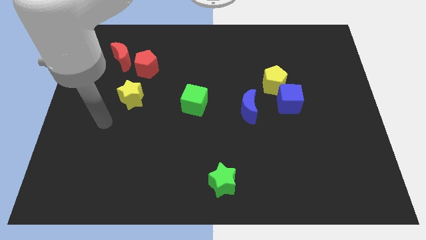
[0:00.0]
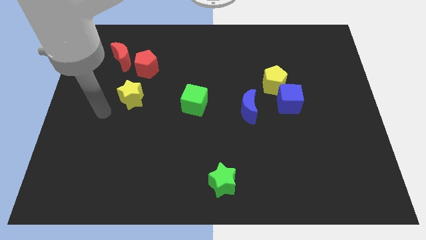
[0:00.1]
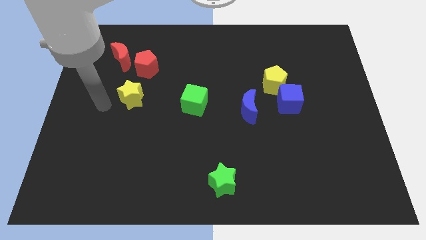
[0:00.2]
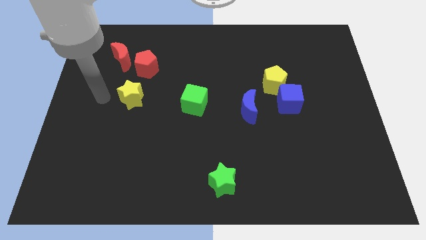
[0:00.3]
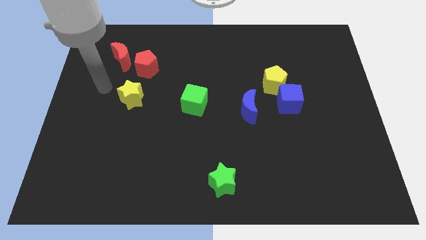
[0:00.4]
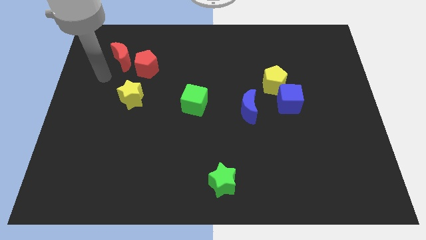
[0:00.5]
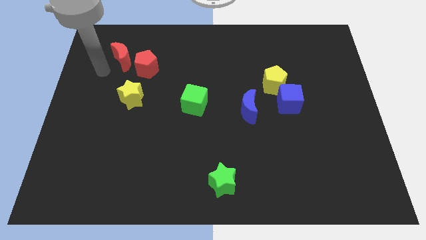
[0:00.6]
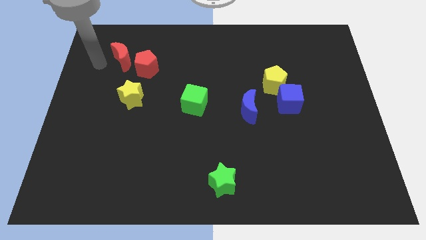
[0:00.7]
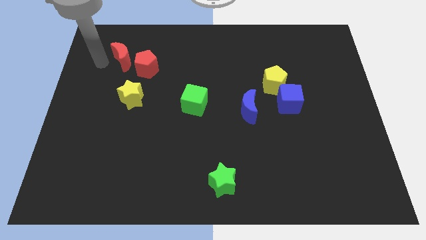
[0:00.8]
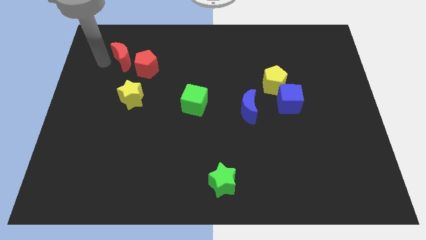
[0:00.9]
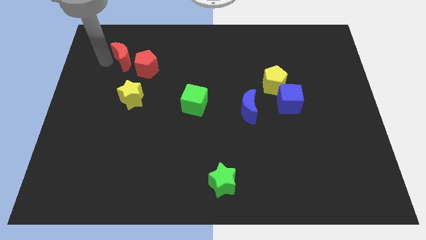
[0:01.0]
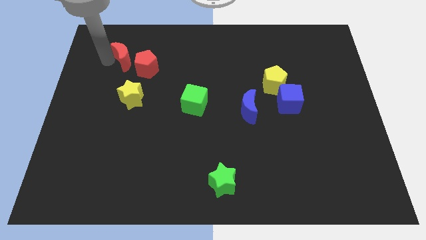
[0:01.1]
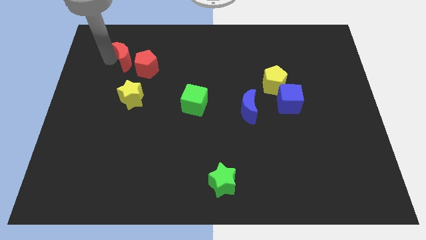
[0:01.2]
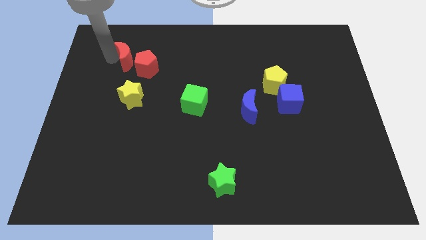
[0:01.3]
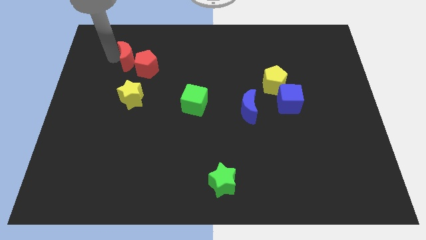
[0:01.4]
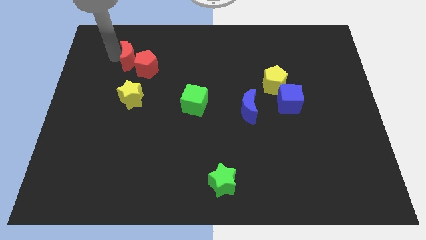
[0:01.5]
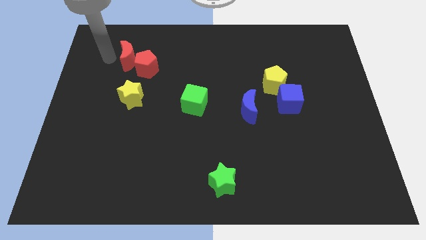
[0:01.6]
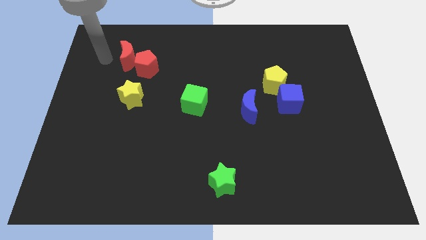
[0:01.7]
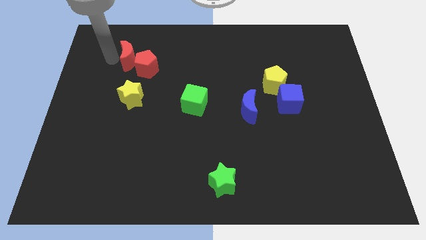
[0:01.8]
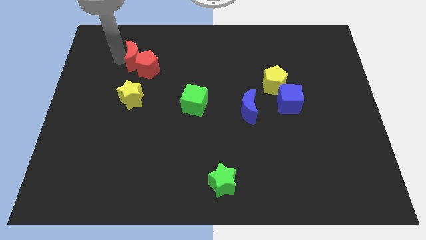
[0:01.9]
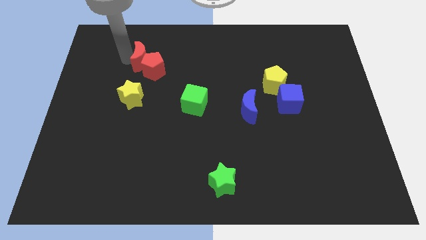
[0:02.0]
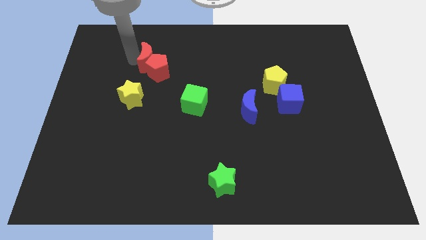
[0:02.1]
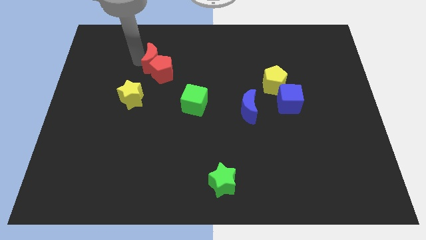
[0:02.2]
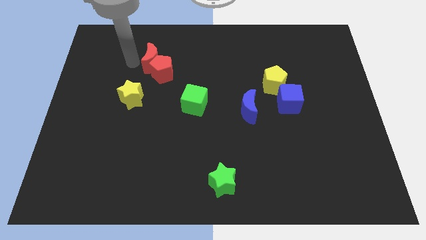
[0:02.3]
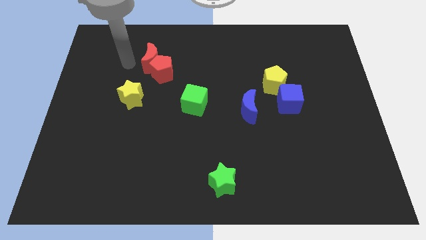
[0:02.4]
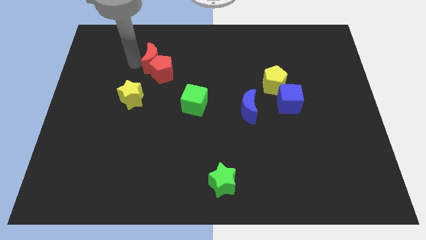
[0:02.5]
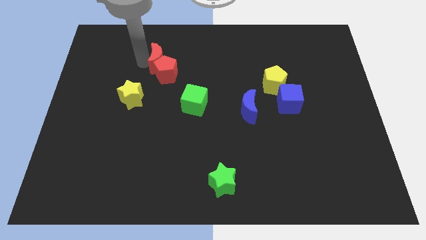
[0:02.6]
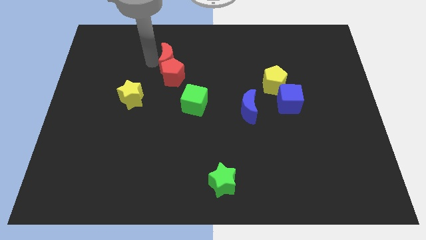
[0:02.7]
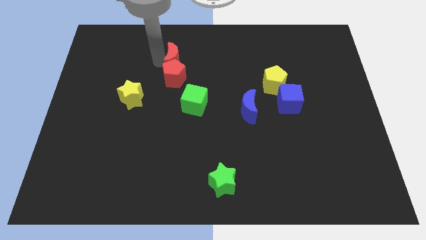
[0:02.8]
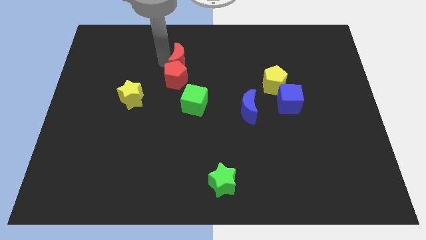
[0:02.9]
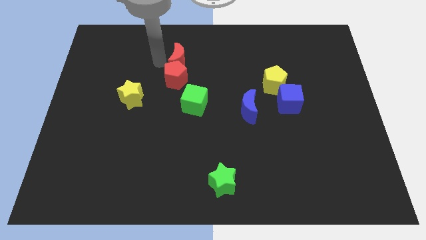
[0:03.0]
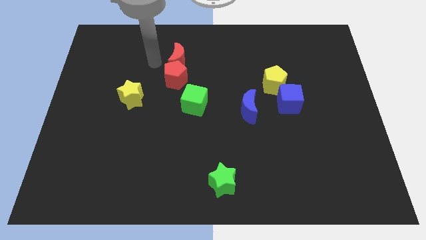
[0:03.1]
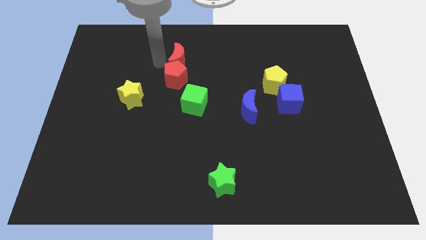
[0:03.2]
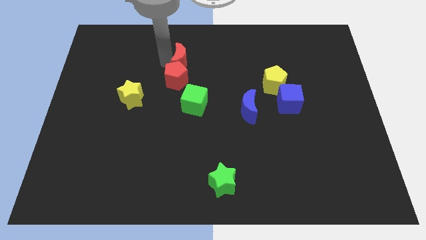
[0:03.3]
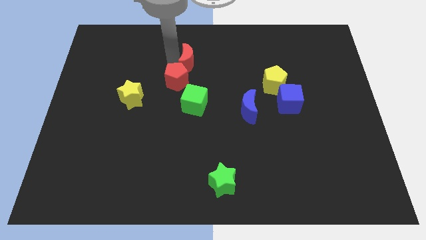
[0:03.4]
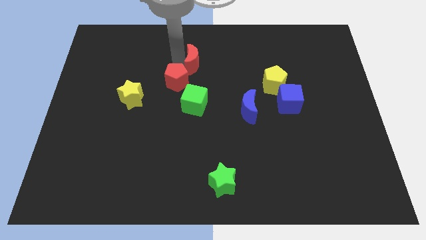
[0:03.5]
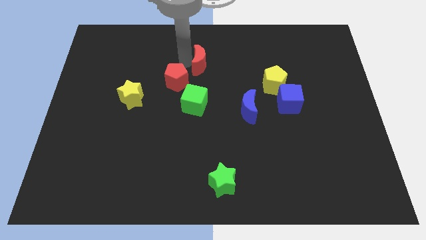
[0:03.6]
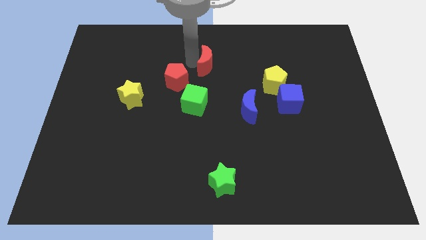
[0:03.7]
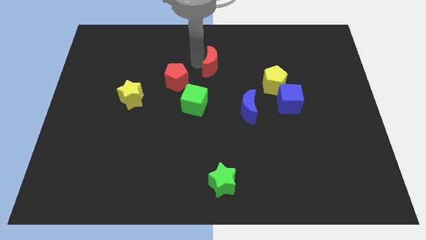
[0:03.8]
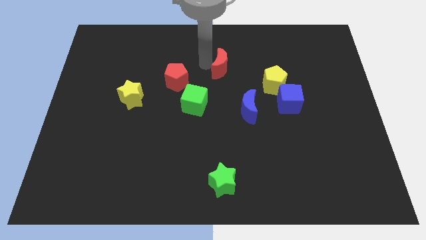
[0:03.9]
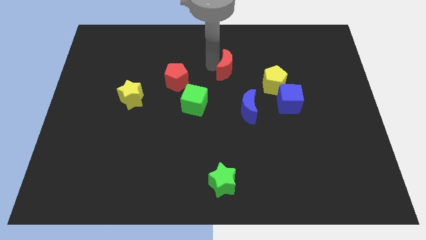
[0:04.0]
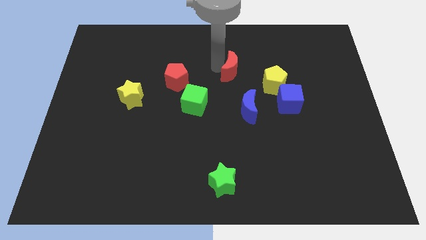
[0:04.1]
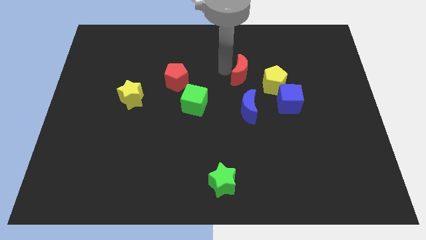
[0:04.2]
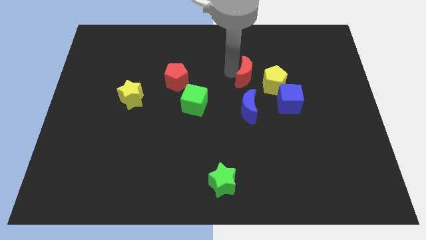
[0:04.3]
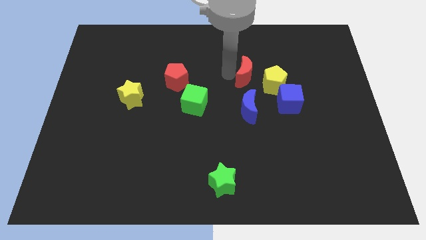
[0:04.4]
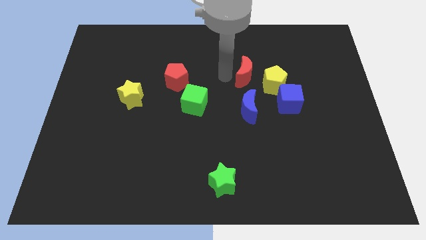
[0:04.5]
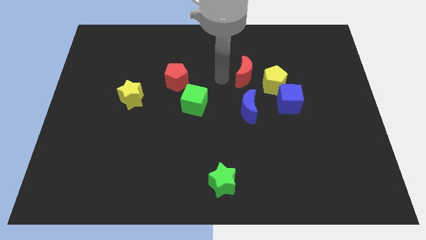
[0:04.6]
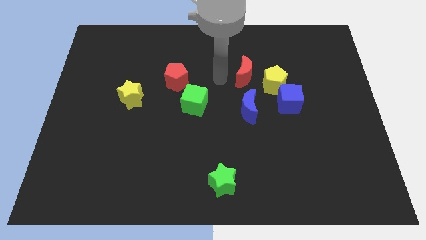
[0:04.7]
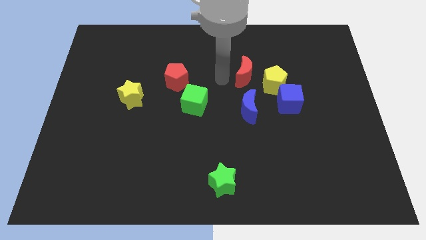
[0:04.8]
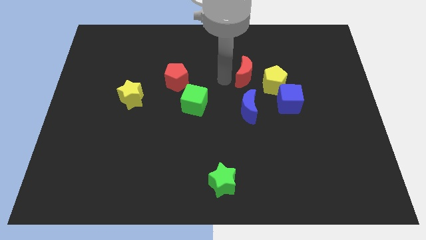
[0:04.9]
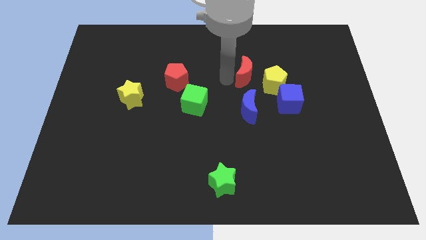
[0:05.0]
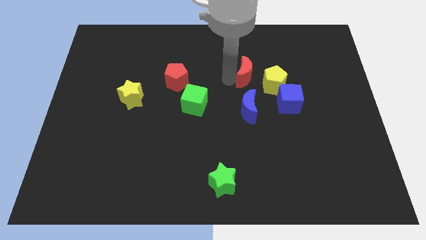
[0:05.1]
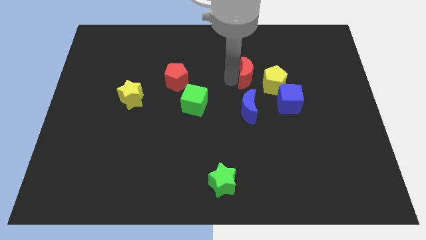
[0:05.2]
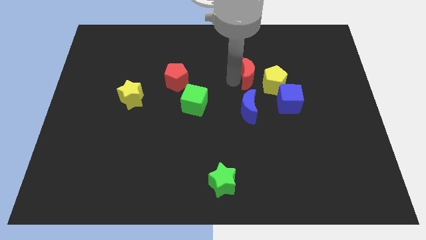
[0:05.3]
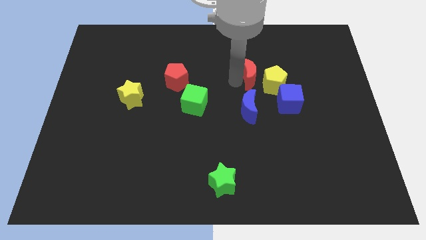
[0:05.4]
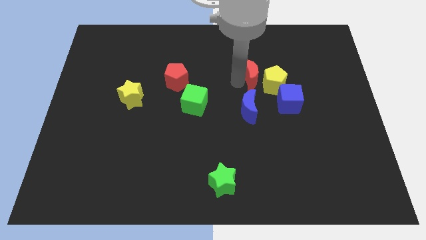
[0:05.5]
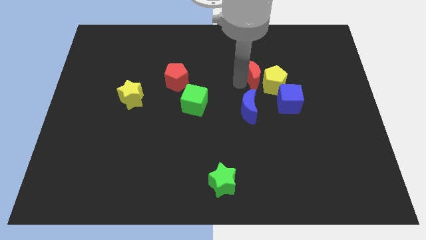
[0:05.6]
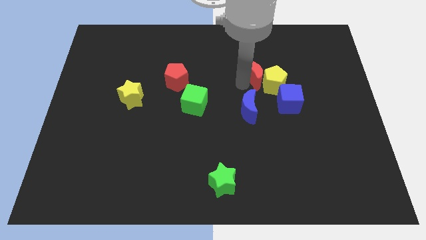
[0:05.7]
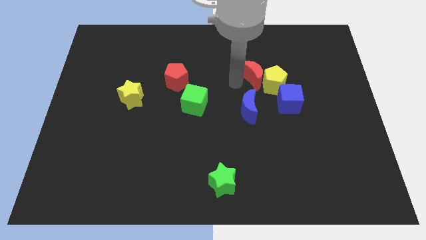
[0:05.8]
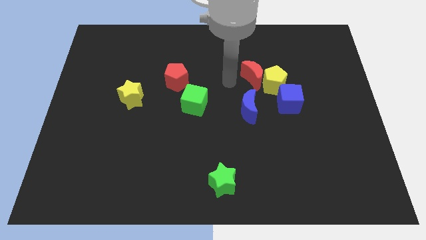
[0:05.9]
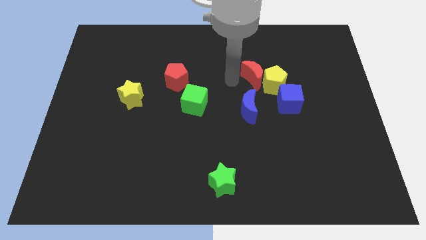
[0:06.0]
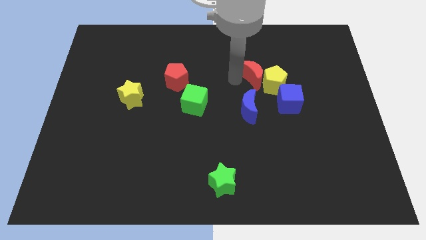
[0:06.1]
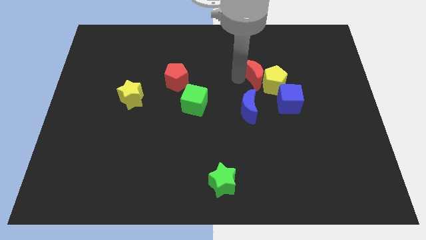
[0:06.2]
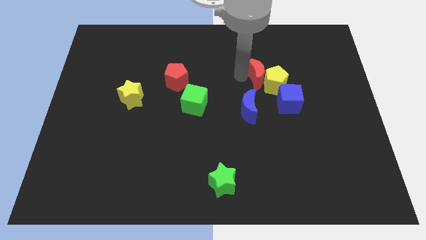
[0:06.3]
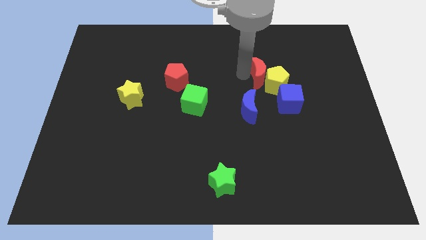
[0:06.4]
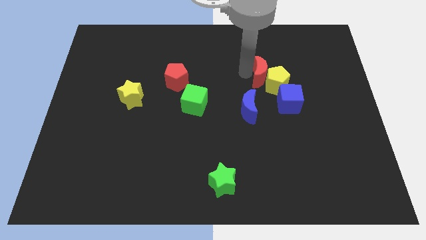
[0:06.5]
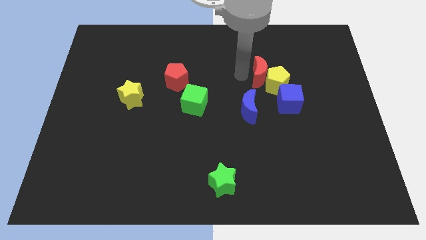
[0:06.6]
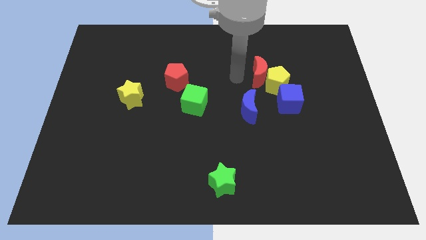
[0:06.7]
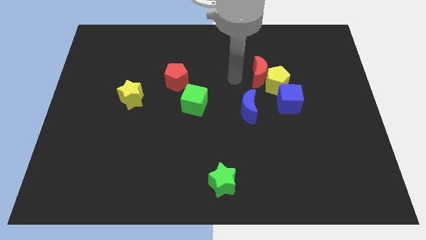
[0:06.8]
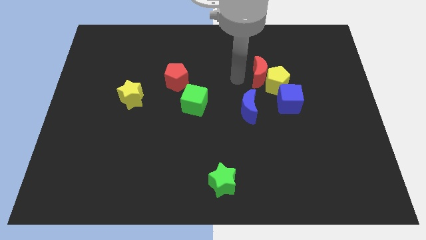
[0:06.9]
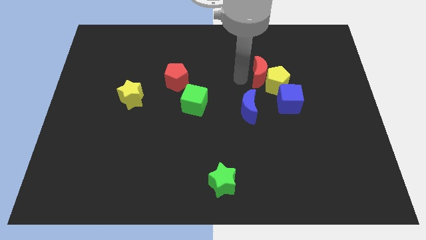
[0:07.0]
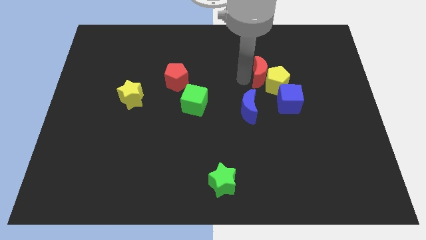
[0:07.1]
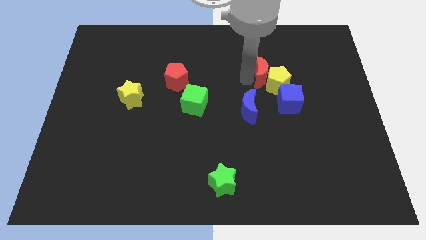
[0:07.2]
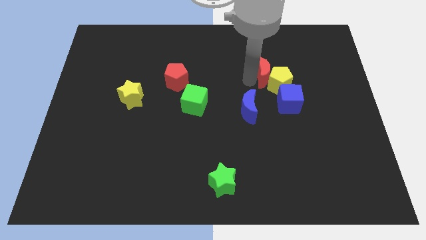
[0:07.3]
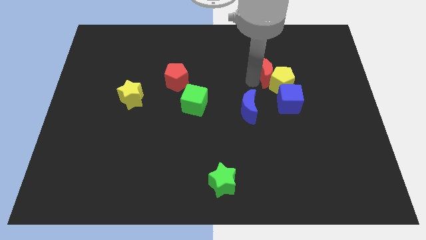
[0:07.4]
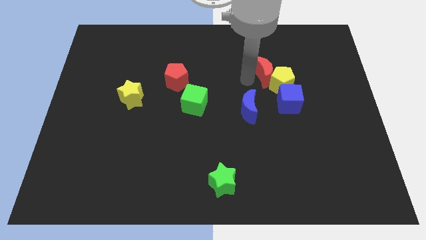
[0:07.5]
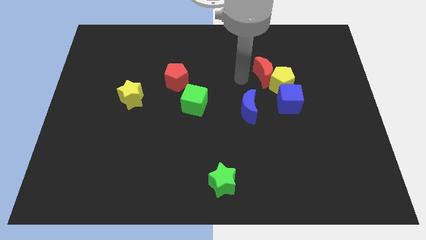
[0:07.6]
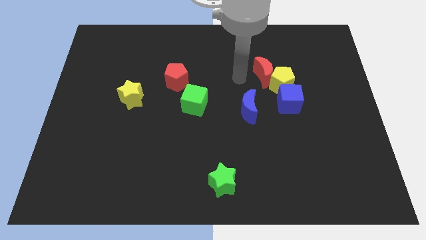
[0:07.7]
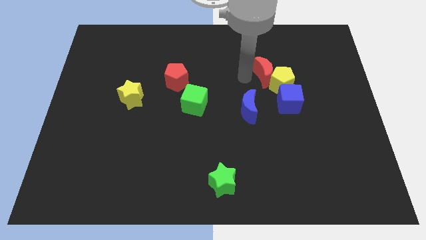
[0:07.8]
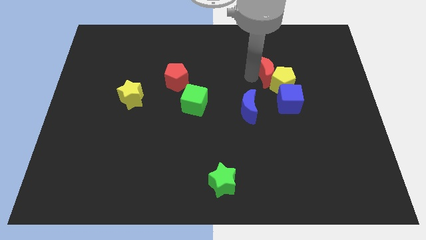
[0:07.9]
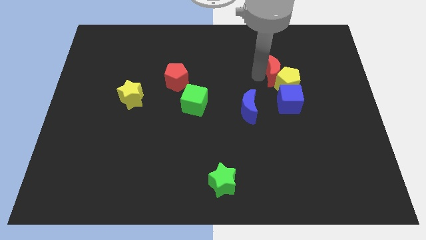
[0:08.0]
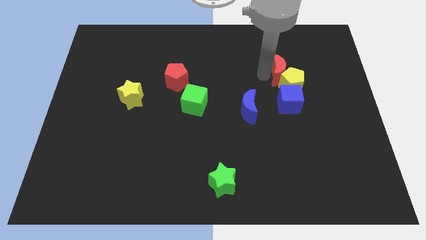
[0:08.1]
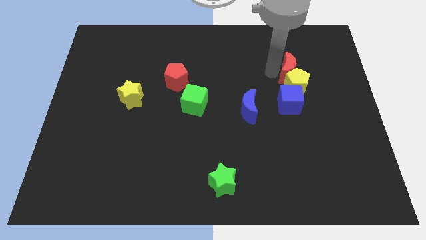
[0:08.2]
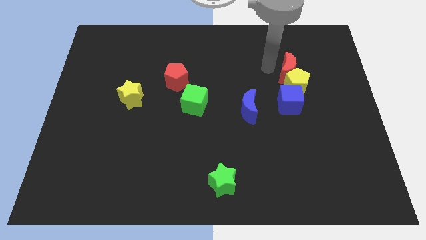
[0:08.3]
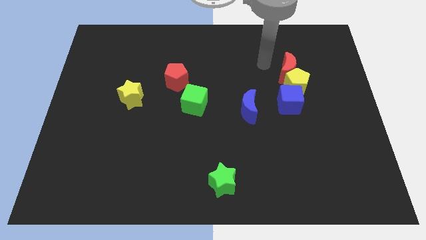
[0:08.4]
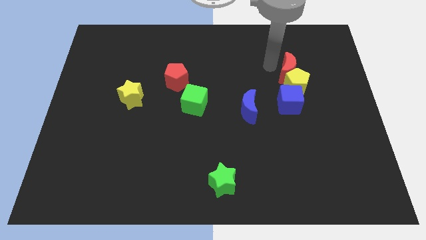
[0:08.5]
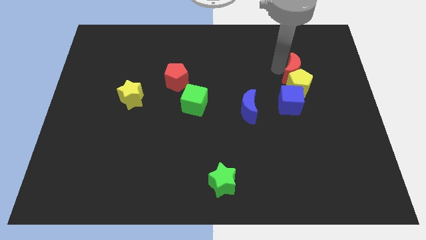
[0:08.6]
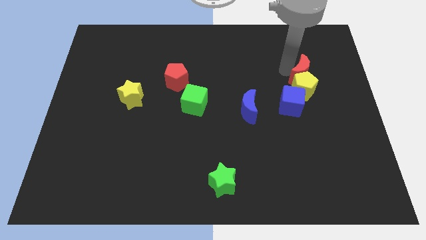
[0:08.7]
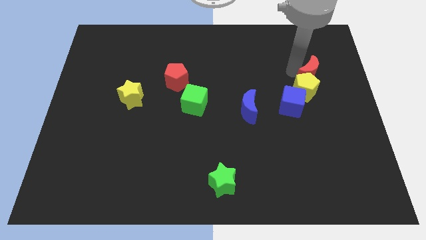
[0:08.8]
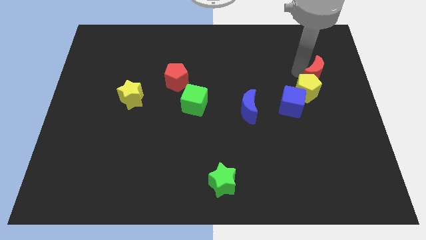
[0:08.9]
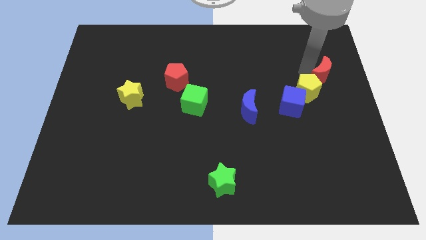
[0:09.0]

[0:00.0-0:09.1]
put the red moon to the right side
